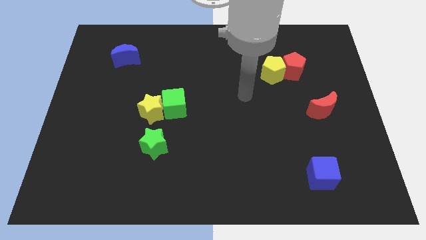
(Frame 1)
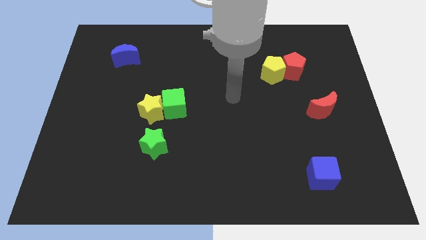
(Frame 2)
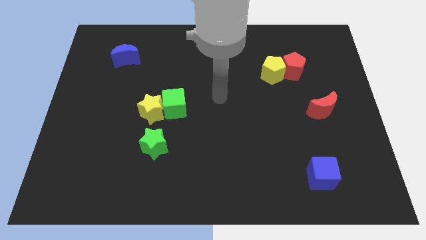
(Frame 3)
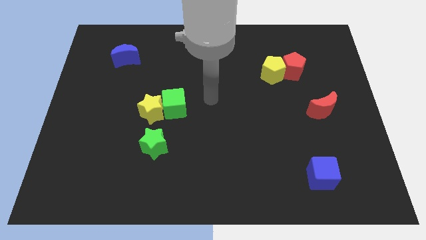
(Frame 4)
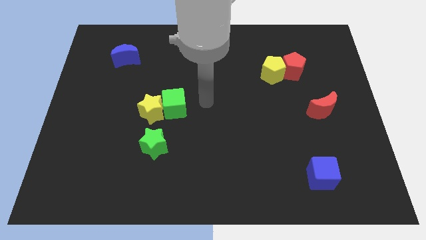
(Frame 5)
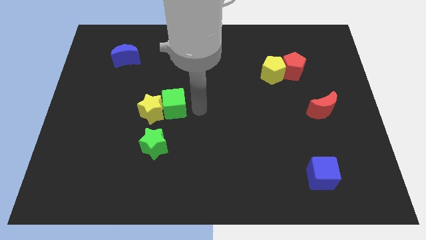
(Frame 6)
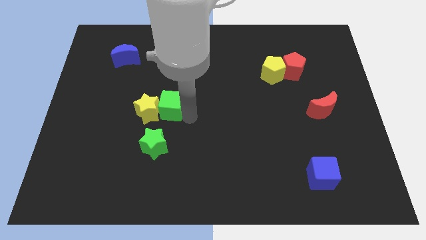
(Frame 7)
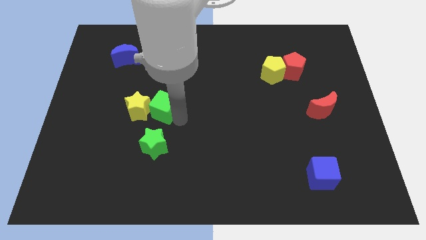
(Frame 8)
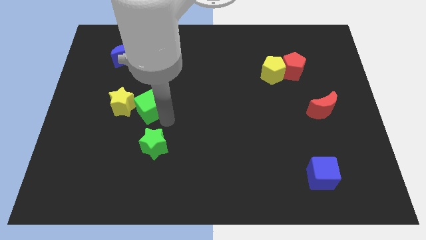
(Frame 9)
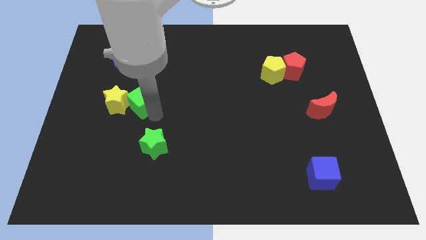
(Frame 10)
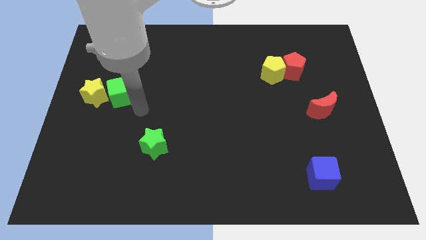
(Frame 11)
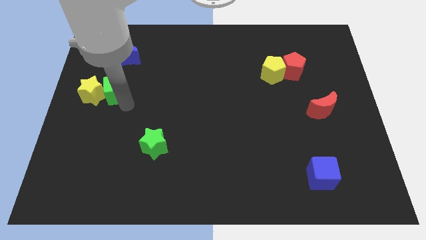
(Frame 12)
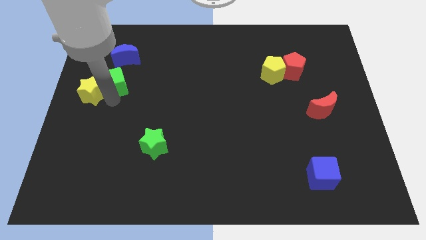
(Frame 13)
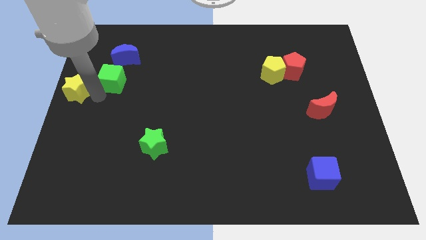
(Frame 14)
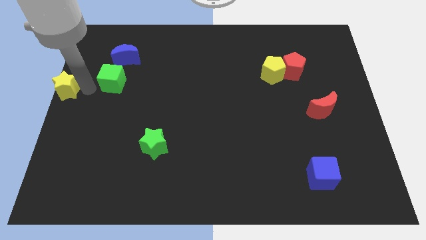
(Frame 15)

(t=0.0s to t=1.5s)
pull the green cube apart from the yellow star

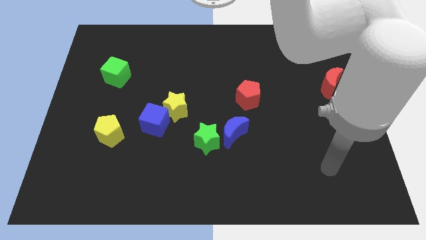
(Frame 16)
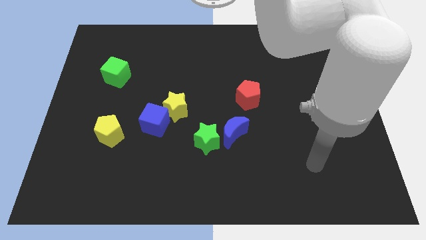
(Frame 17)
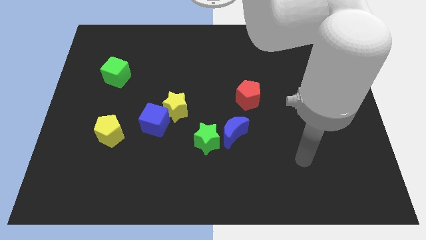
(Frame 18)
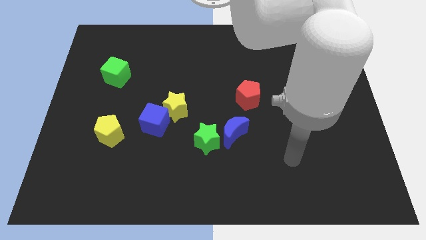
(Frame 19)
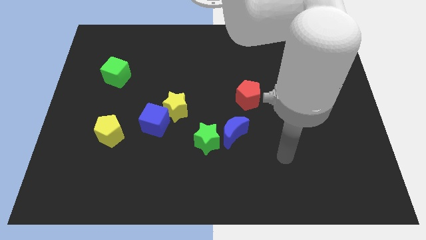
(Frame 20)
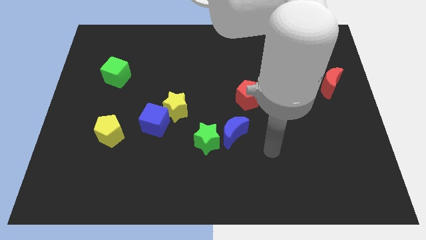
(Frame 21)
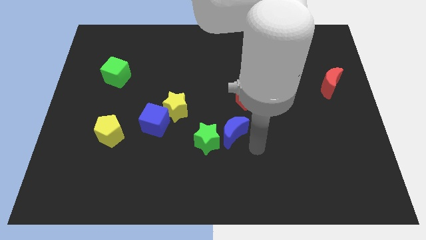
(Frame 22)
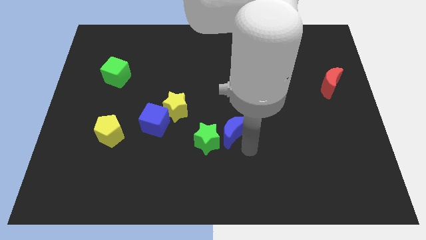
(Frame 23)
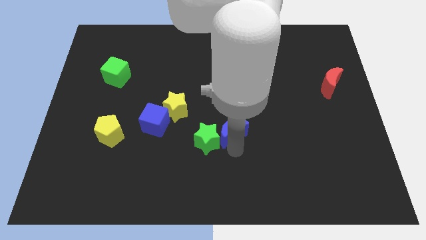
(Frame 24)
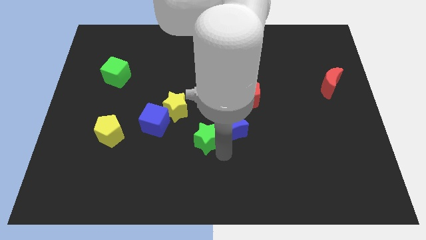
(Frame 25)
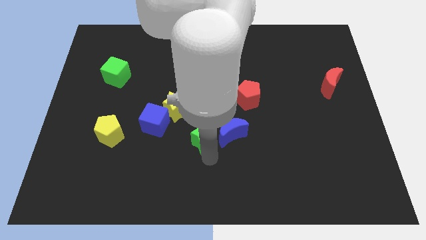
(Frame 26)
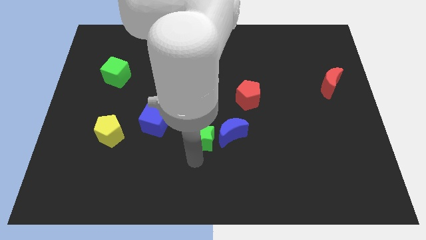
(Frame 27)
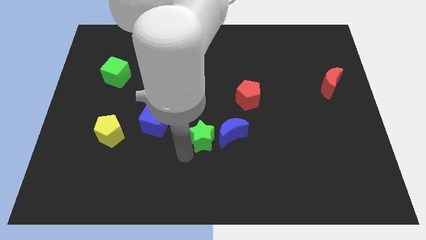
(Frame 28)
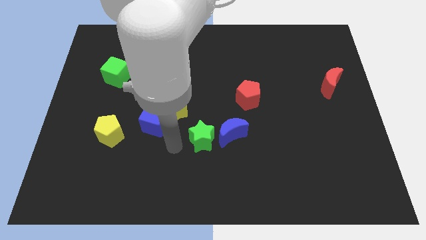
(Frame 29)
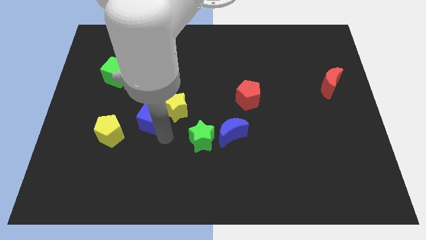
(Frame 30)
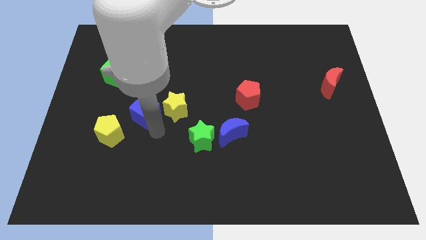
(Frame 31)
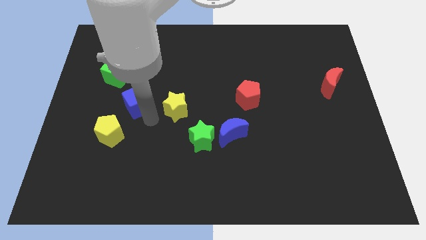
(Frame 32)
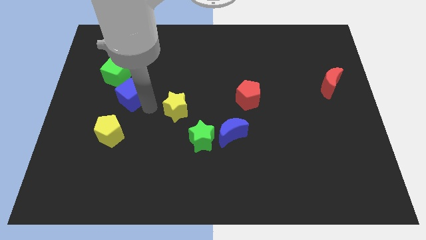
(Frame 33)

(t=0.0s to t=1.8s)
separate the yellow star from the blue cube

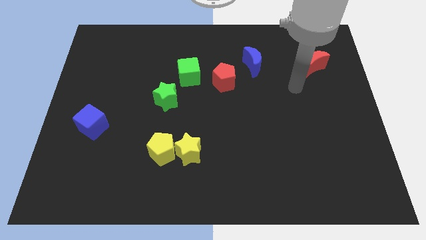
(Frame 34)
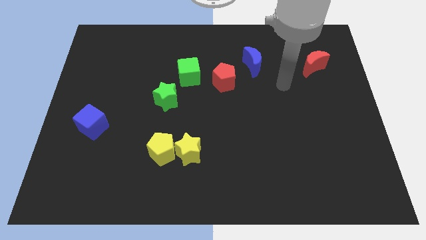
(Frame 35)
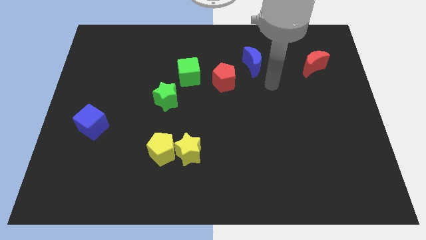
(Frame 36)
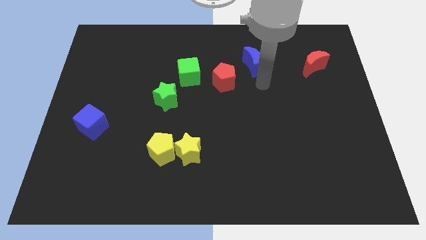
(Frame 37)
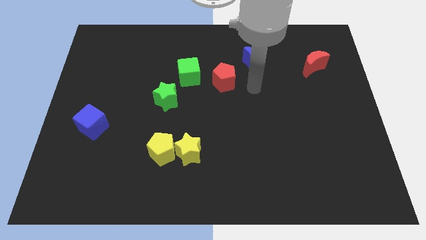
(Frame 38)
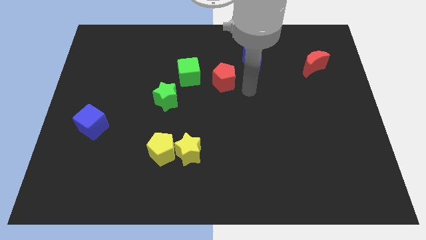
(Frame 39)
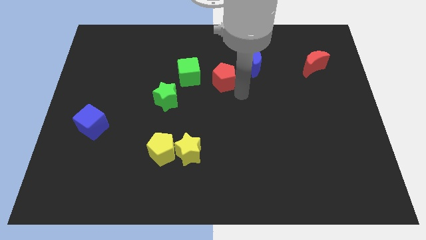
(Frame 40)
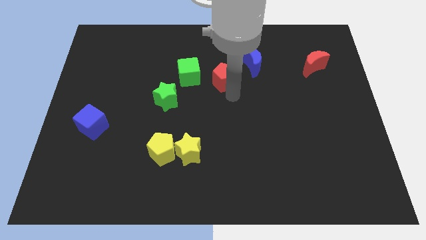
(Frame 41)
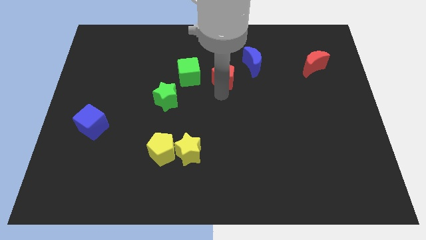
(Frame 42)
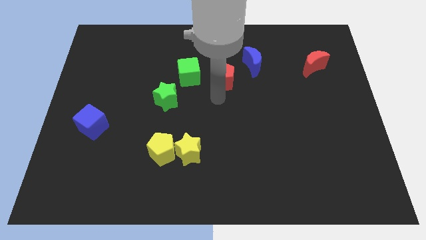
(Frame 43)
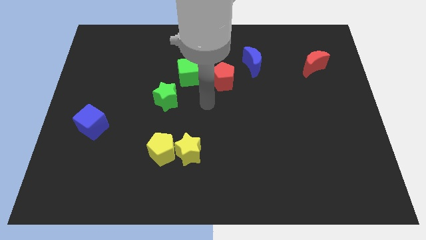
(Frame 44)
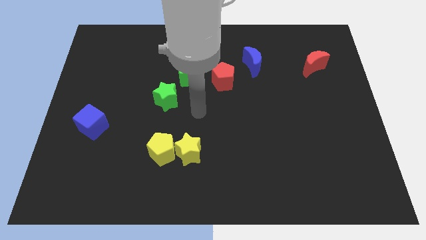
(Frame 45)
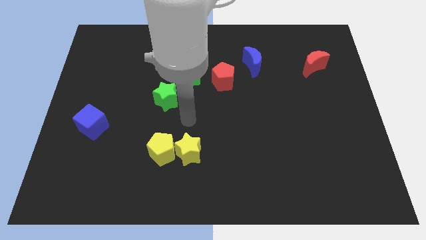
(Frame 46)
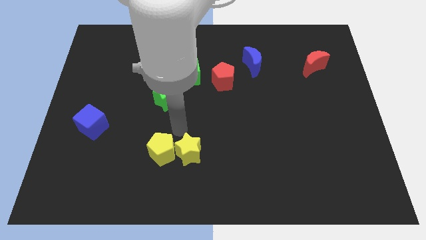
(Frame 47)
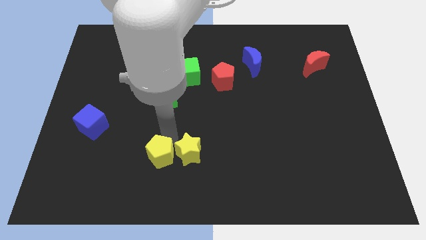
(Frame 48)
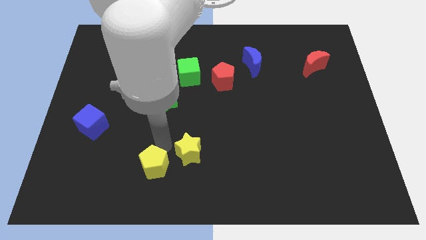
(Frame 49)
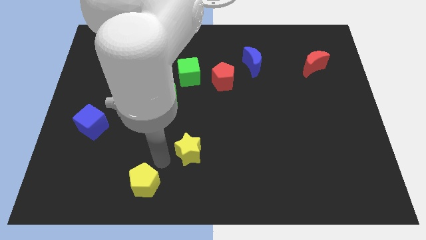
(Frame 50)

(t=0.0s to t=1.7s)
pull the yellow star apart from the yellow pentagon

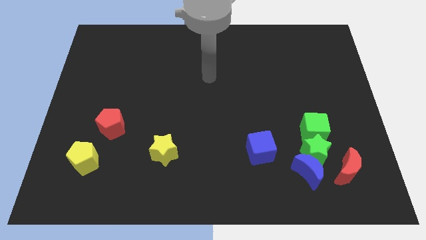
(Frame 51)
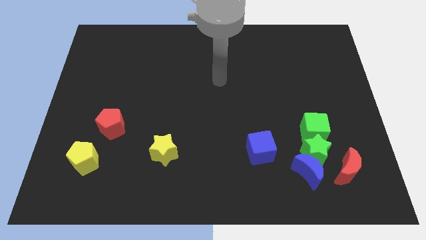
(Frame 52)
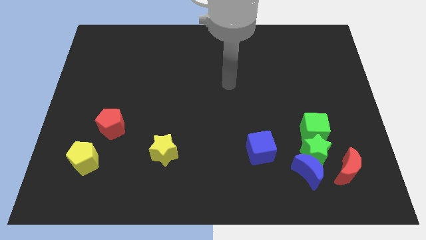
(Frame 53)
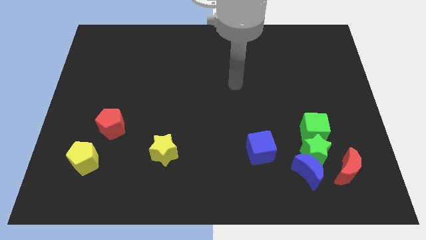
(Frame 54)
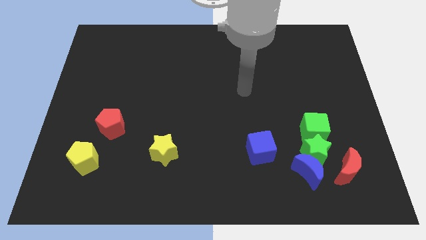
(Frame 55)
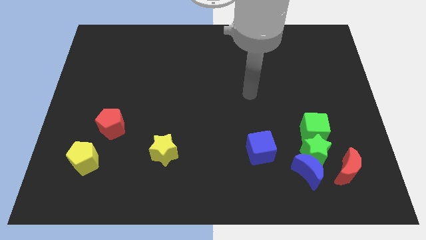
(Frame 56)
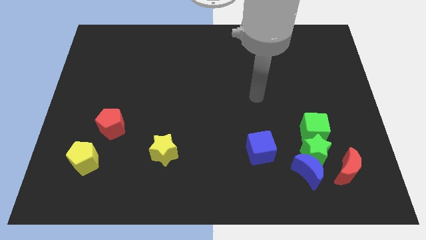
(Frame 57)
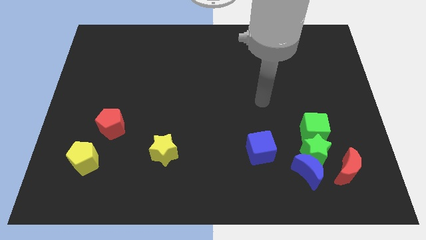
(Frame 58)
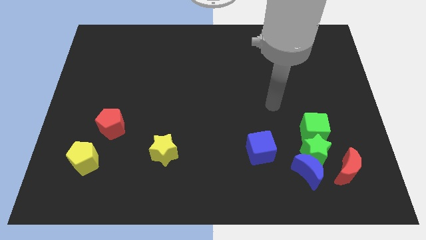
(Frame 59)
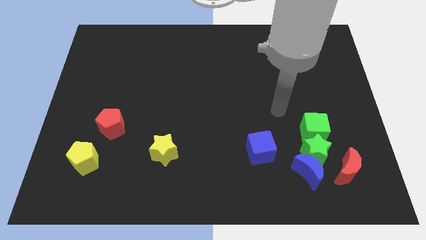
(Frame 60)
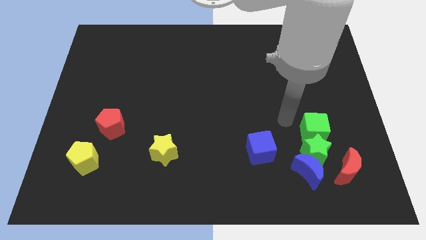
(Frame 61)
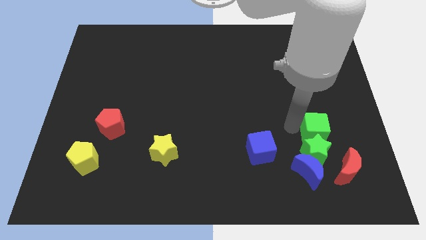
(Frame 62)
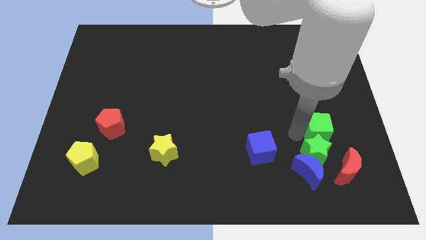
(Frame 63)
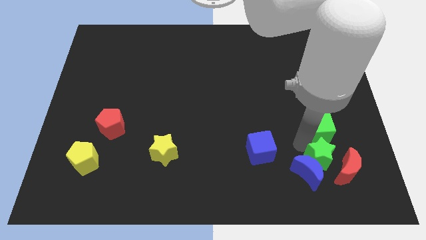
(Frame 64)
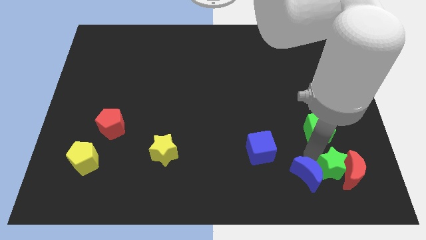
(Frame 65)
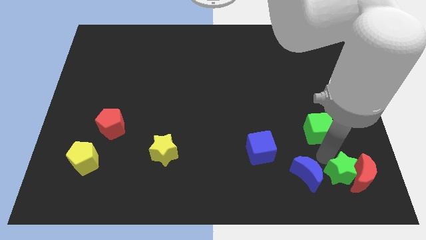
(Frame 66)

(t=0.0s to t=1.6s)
separate the green cube from the green star

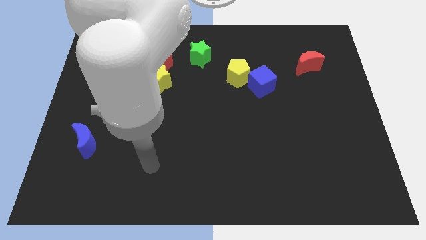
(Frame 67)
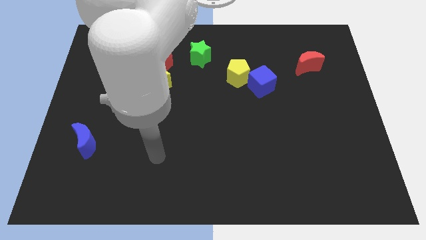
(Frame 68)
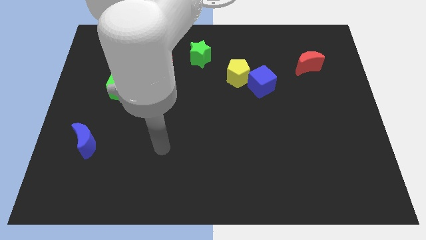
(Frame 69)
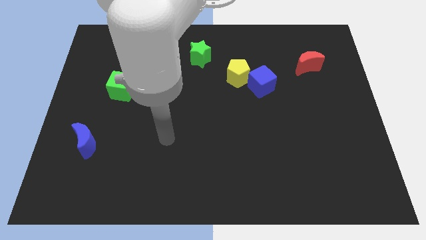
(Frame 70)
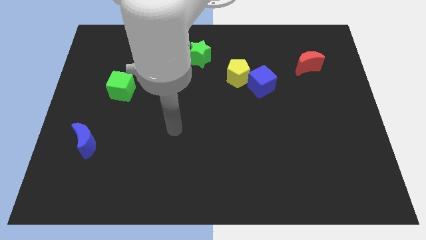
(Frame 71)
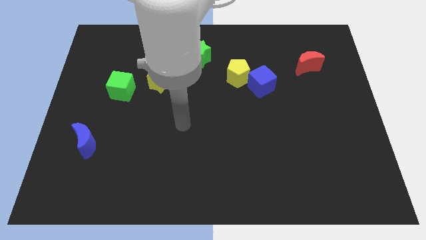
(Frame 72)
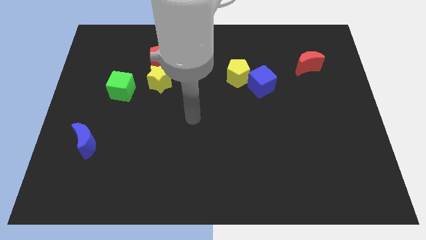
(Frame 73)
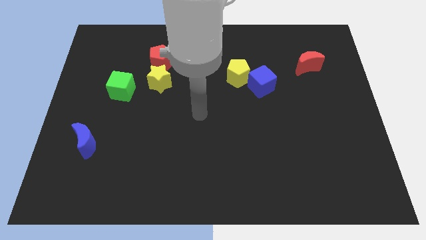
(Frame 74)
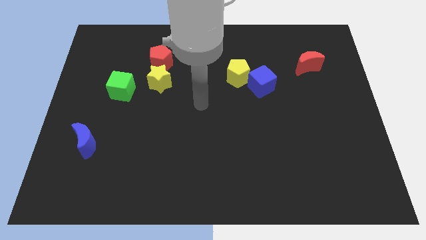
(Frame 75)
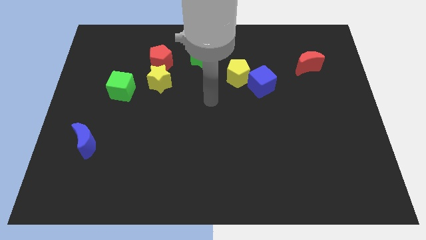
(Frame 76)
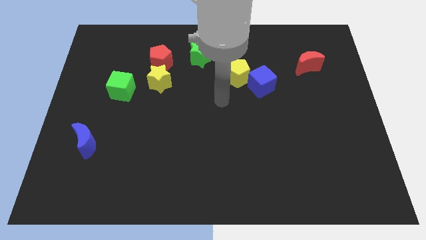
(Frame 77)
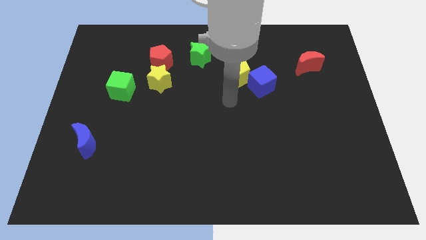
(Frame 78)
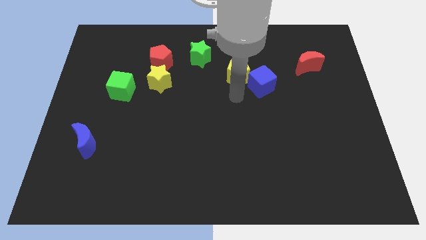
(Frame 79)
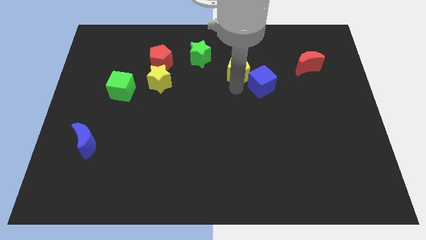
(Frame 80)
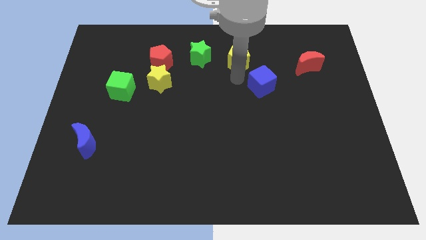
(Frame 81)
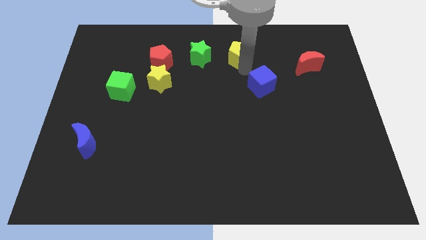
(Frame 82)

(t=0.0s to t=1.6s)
pull the blue cube apart from the yellow pentagon

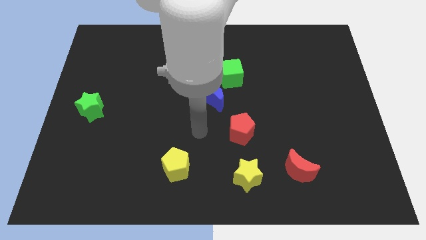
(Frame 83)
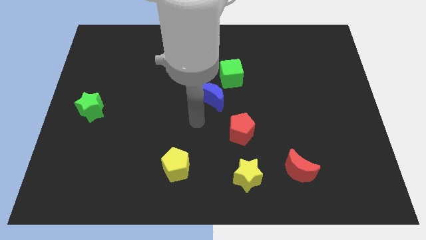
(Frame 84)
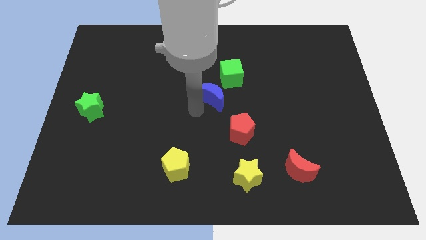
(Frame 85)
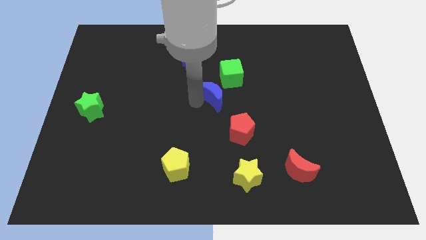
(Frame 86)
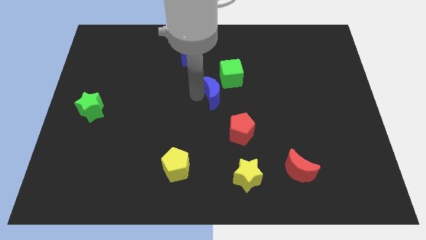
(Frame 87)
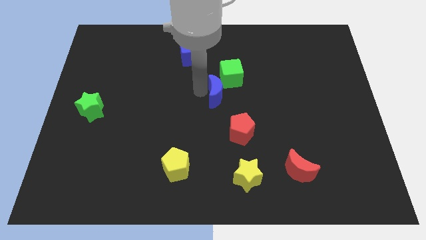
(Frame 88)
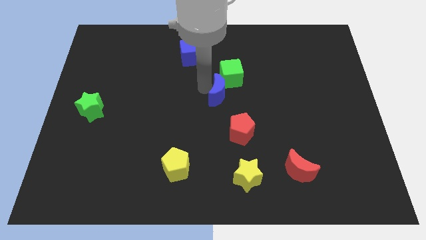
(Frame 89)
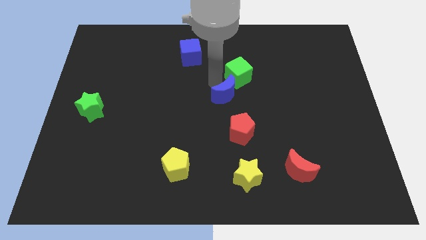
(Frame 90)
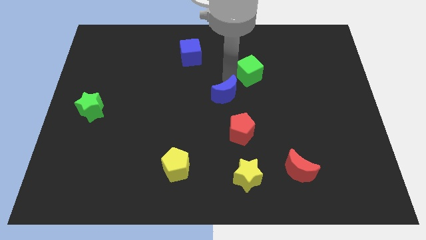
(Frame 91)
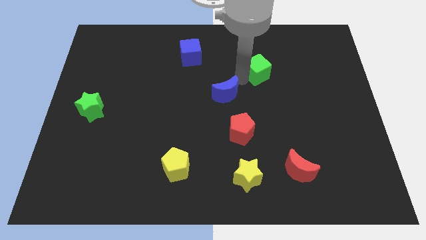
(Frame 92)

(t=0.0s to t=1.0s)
move the blue moon away from the green cube
